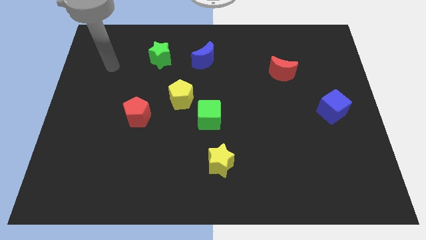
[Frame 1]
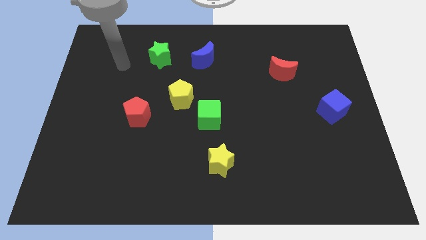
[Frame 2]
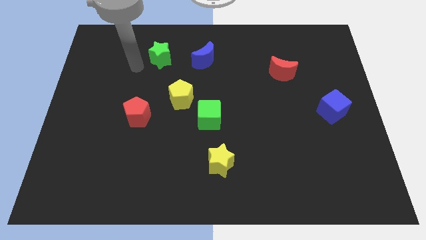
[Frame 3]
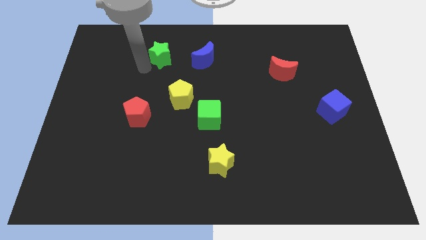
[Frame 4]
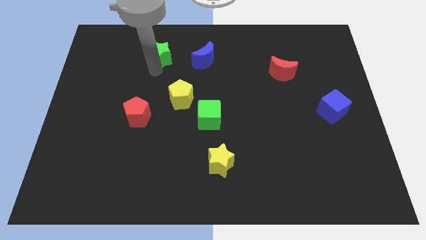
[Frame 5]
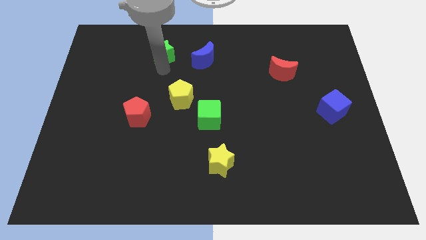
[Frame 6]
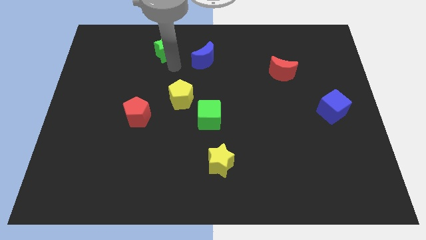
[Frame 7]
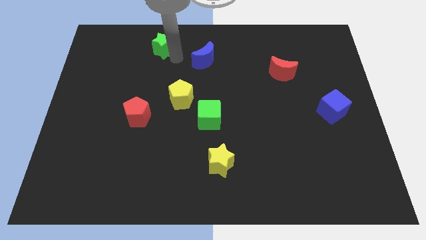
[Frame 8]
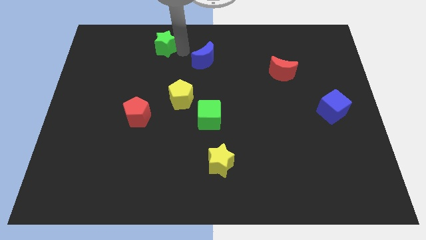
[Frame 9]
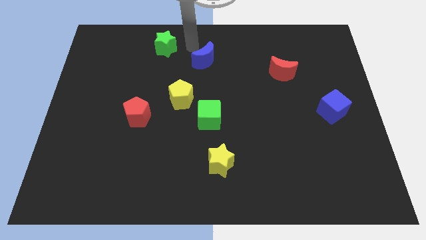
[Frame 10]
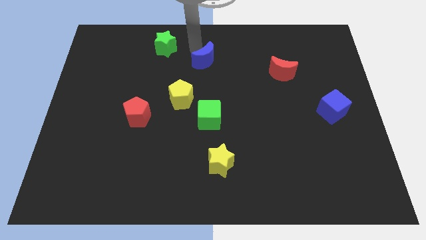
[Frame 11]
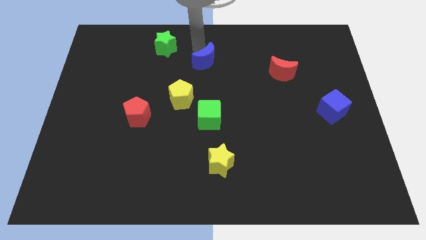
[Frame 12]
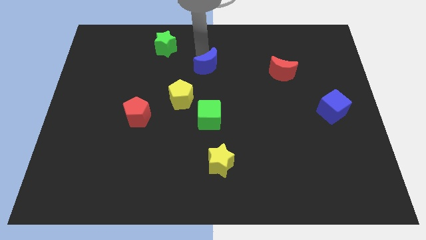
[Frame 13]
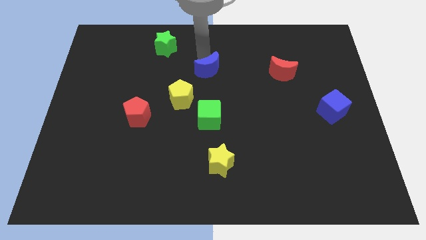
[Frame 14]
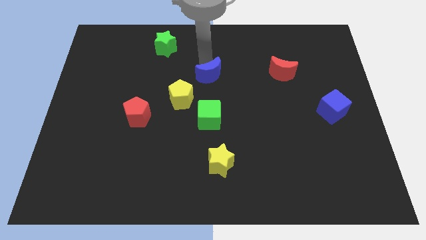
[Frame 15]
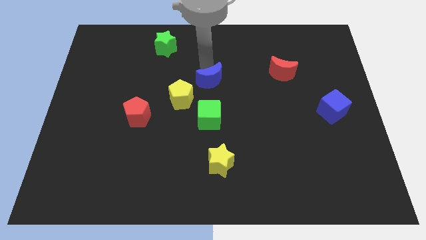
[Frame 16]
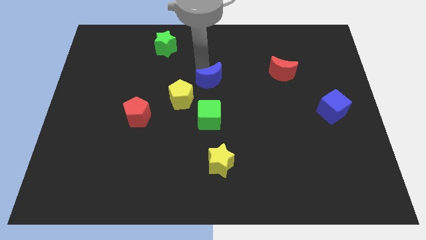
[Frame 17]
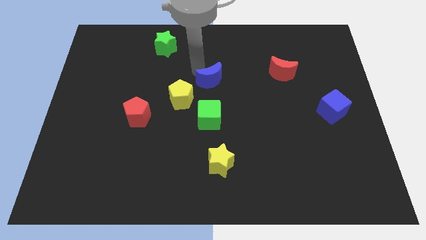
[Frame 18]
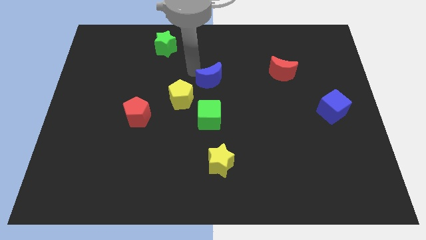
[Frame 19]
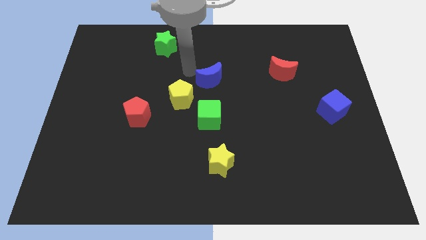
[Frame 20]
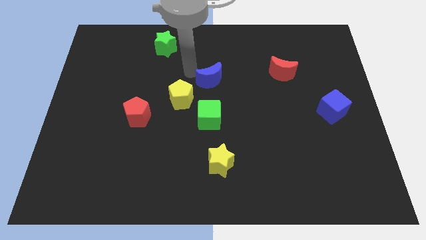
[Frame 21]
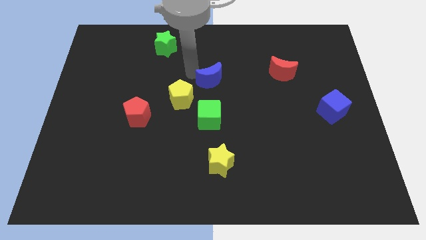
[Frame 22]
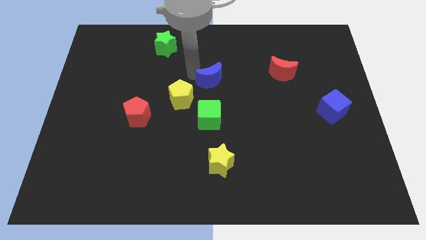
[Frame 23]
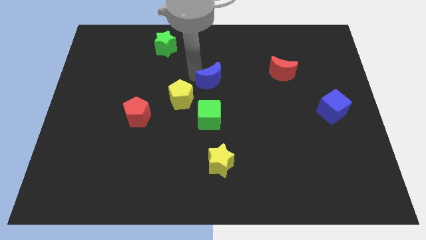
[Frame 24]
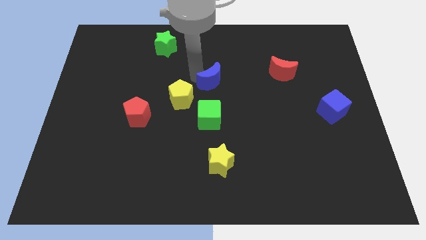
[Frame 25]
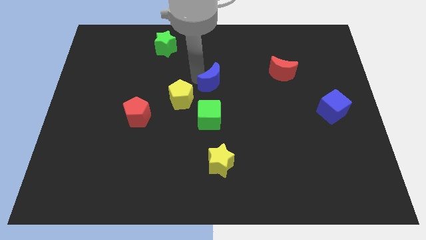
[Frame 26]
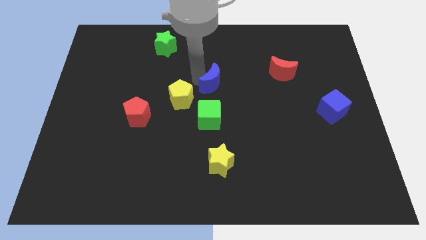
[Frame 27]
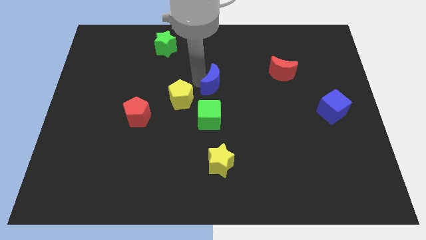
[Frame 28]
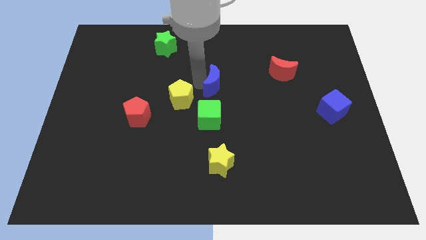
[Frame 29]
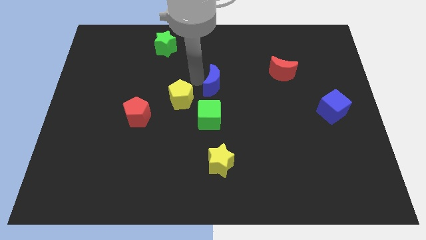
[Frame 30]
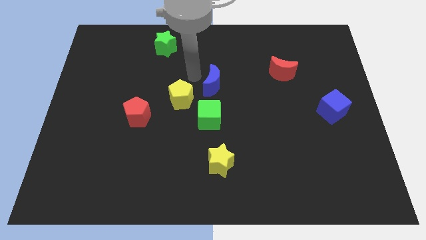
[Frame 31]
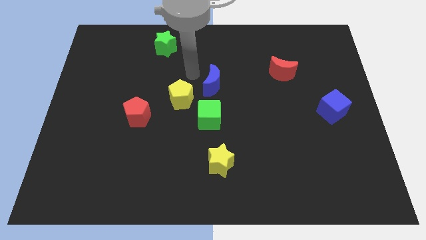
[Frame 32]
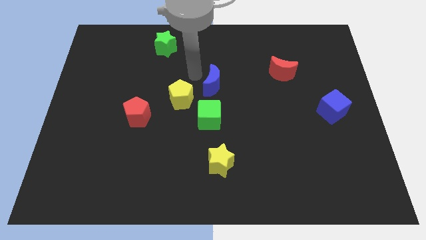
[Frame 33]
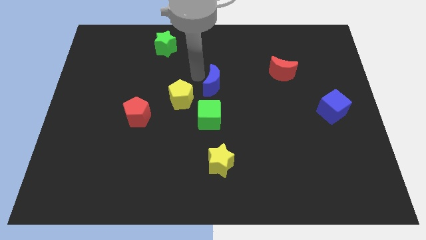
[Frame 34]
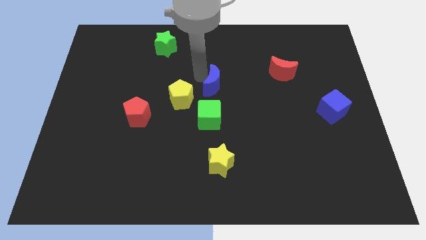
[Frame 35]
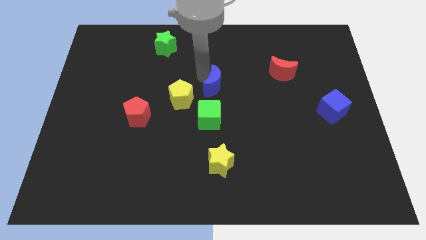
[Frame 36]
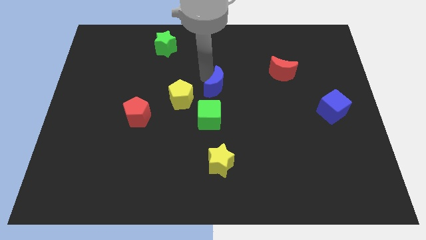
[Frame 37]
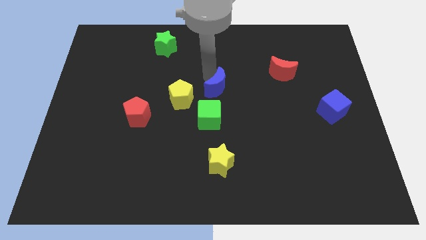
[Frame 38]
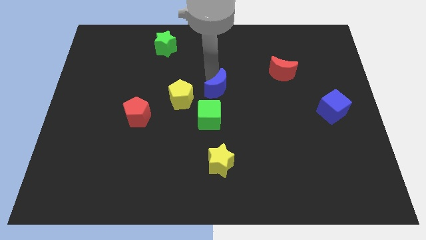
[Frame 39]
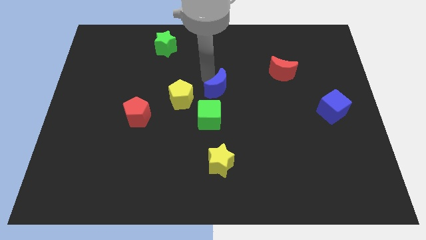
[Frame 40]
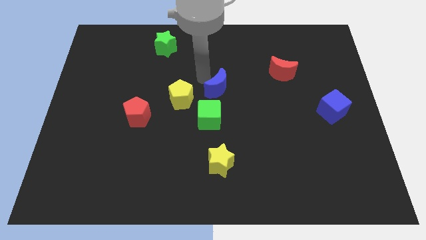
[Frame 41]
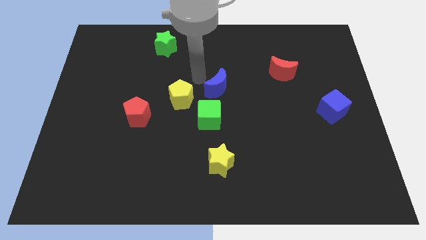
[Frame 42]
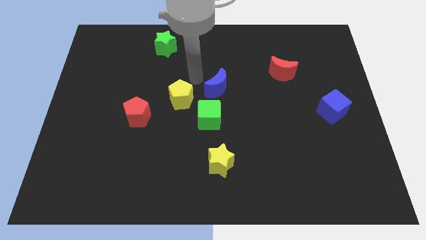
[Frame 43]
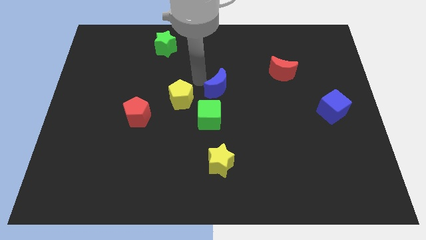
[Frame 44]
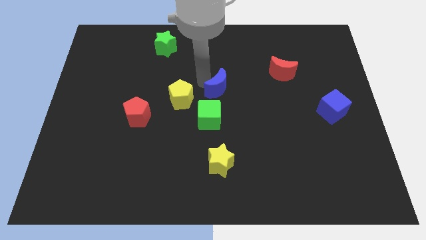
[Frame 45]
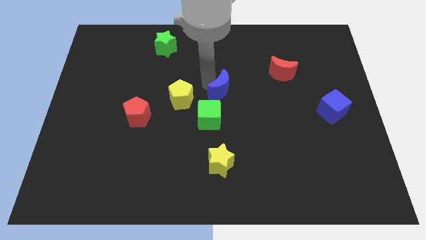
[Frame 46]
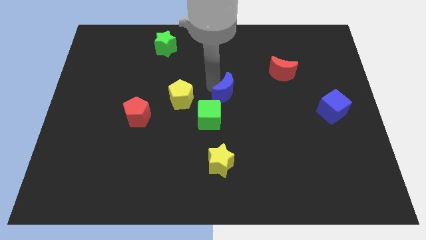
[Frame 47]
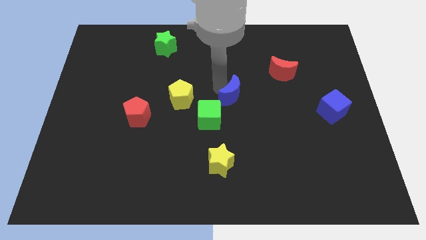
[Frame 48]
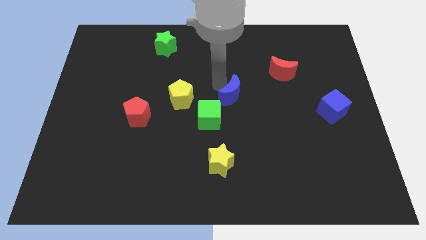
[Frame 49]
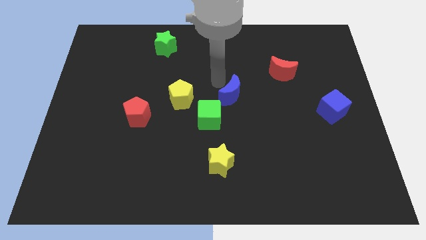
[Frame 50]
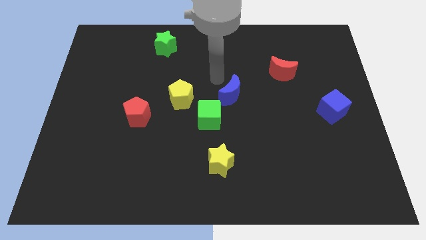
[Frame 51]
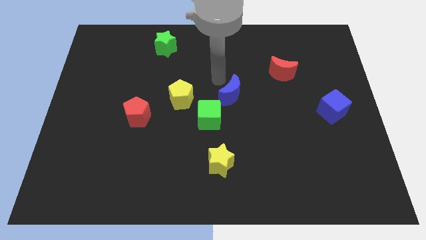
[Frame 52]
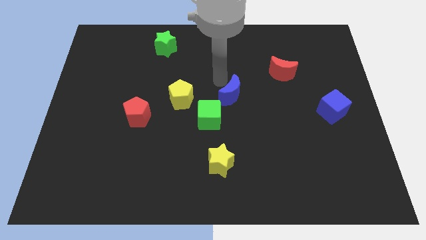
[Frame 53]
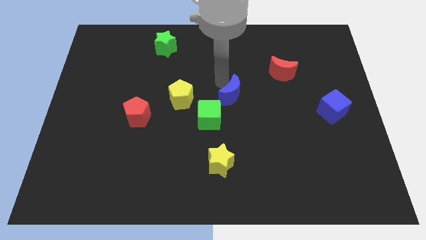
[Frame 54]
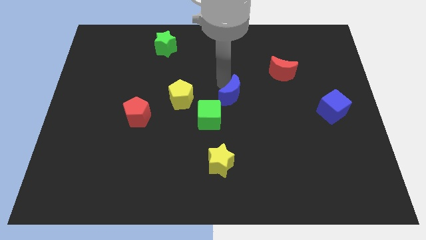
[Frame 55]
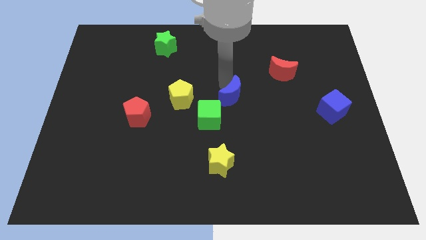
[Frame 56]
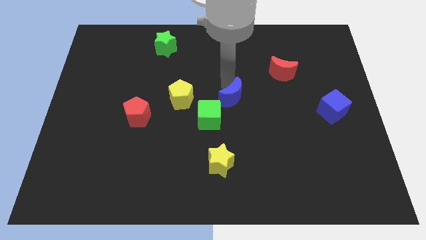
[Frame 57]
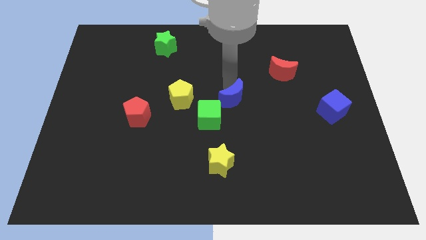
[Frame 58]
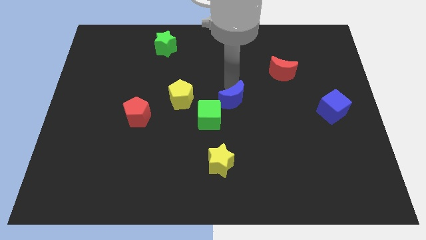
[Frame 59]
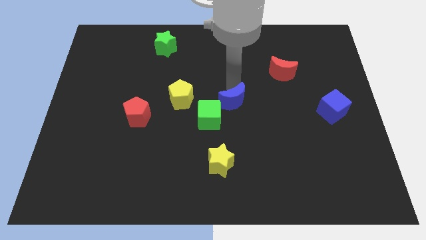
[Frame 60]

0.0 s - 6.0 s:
move the blue moon to the right of the green cube

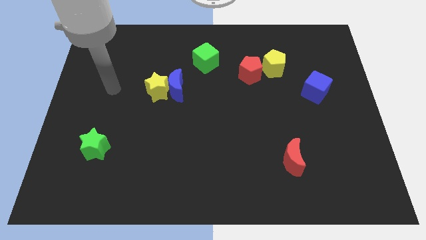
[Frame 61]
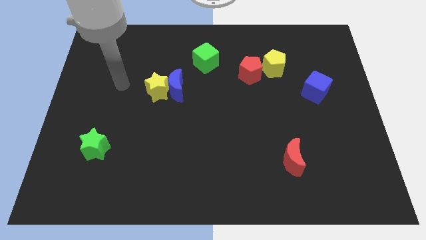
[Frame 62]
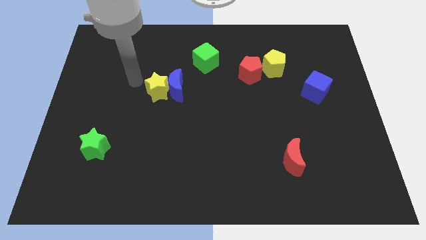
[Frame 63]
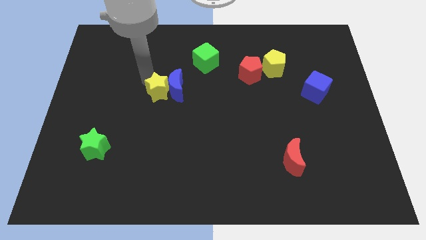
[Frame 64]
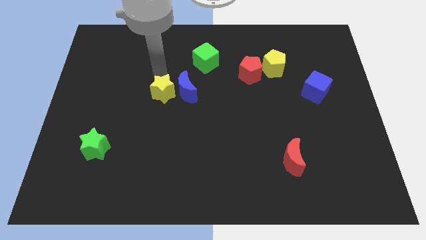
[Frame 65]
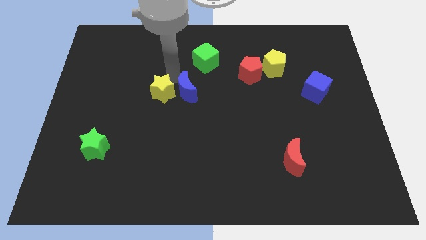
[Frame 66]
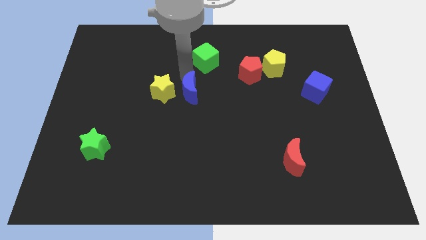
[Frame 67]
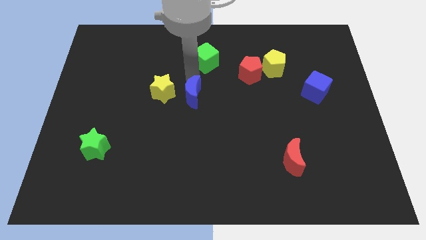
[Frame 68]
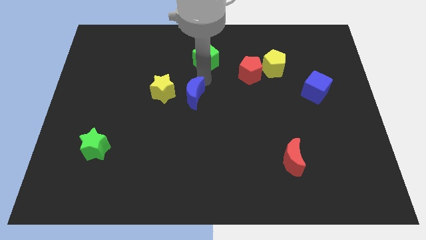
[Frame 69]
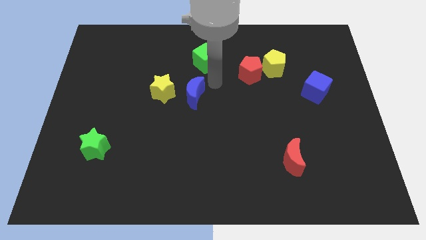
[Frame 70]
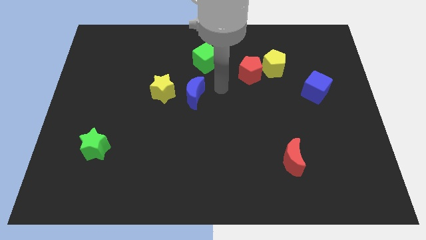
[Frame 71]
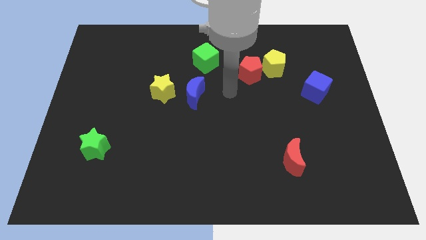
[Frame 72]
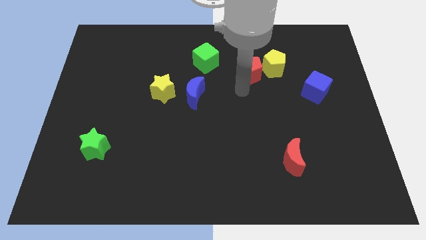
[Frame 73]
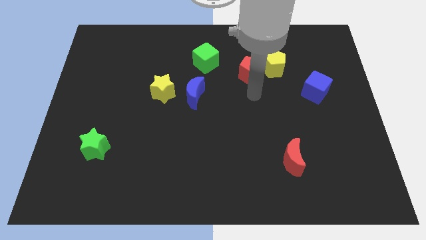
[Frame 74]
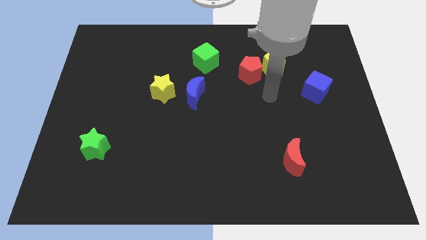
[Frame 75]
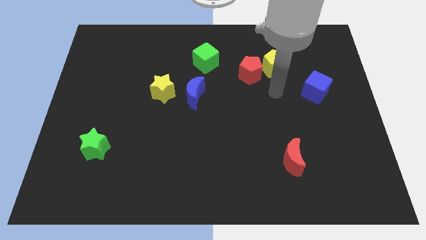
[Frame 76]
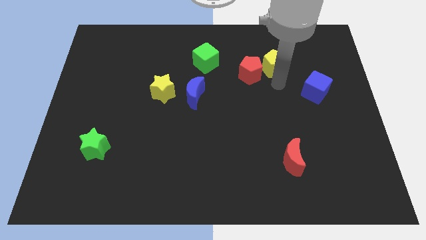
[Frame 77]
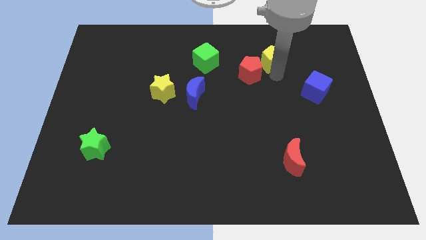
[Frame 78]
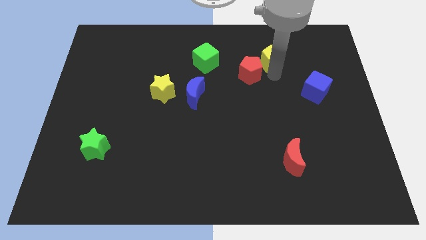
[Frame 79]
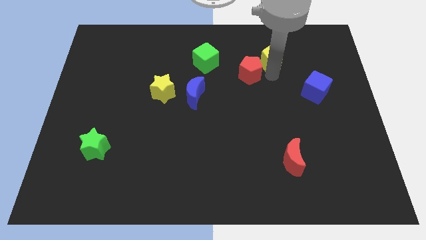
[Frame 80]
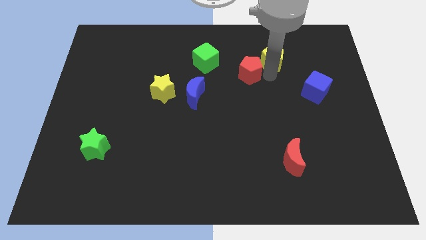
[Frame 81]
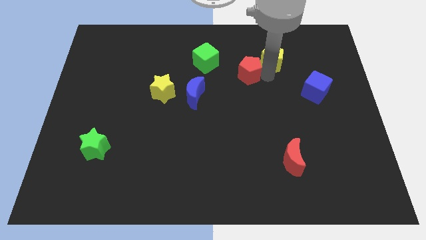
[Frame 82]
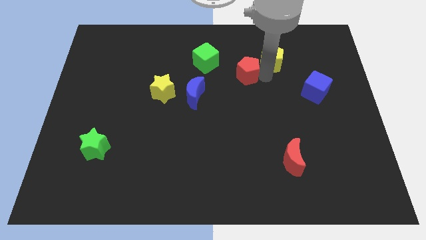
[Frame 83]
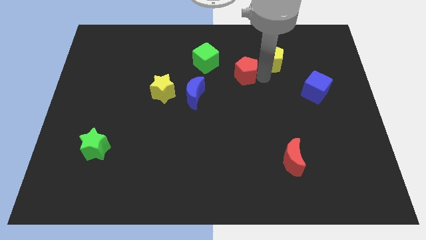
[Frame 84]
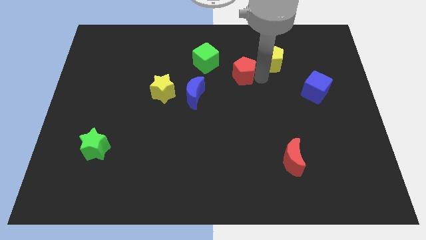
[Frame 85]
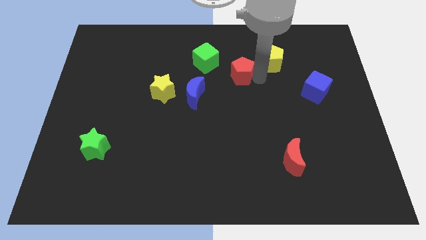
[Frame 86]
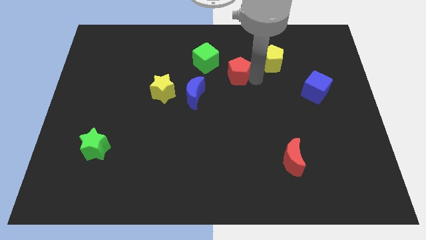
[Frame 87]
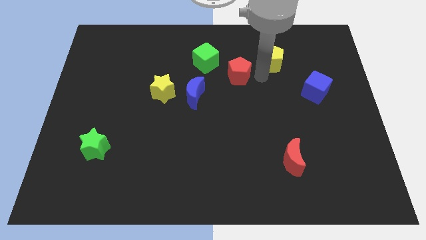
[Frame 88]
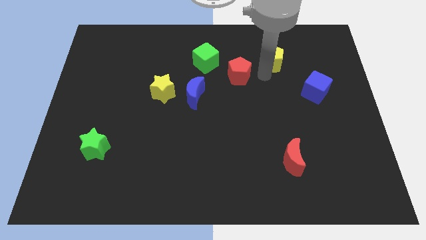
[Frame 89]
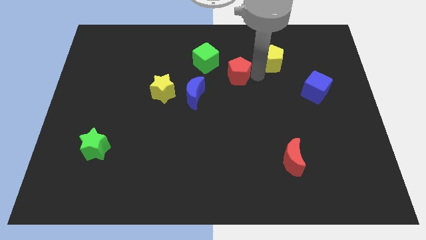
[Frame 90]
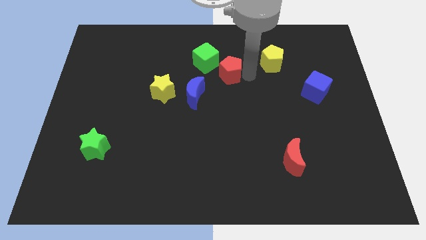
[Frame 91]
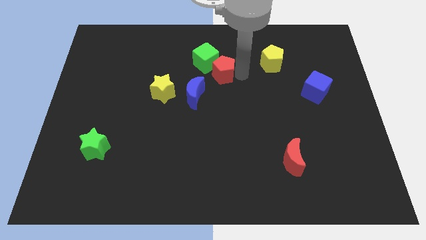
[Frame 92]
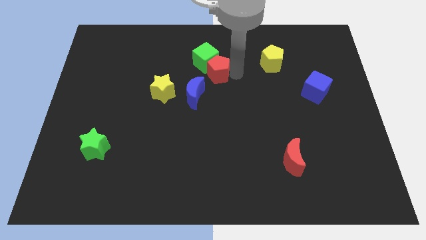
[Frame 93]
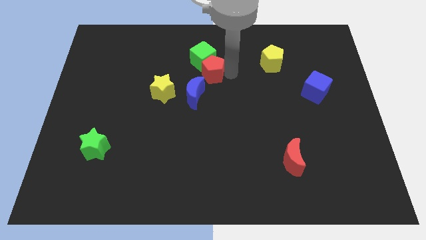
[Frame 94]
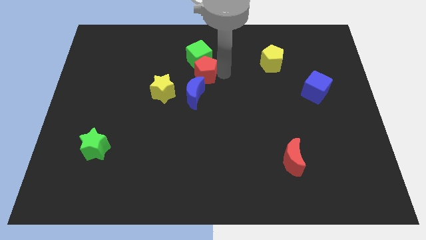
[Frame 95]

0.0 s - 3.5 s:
slide the red pentagon diagonally up and to the right of the yellow star
